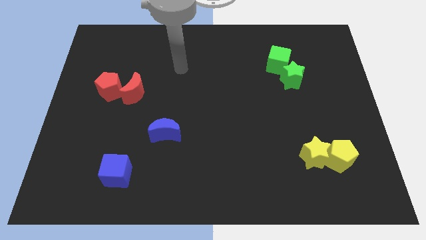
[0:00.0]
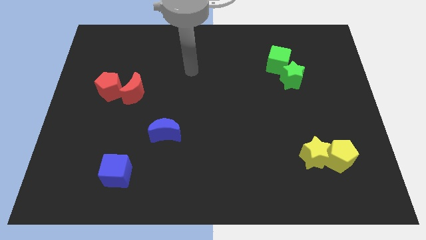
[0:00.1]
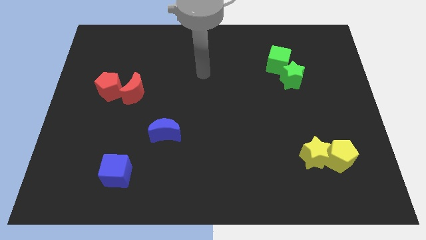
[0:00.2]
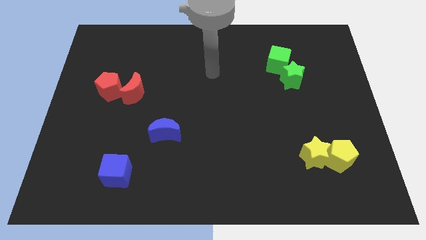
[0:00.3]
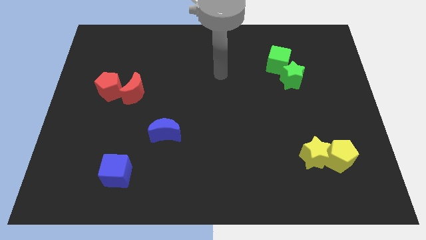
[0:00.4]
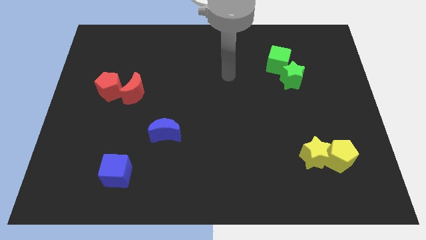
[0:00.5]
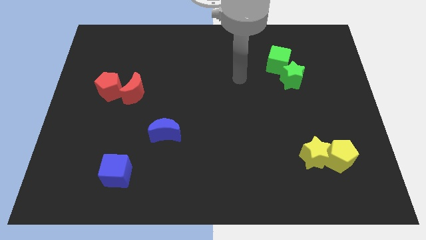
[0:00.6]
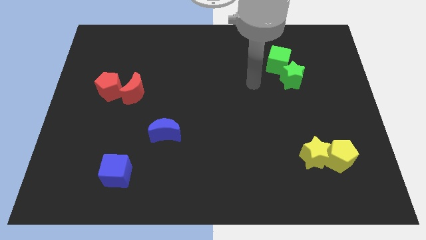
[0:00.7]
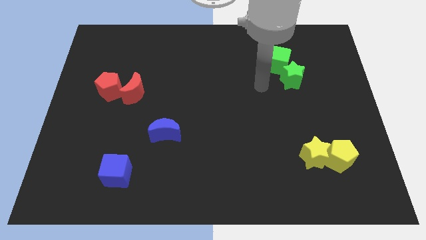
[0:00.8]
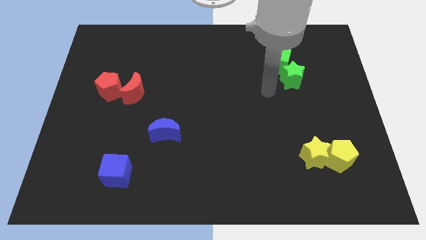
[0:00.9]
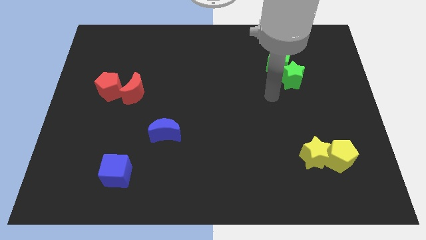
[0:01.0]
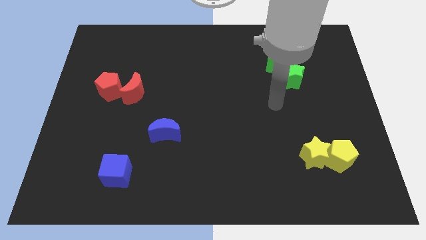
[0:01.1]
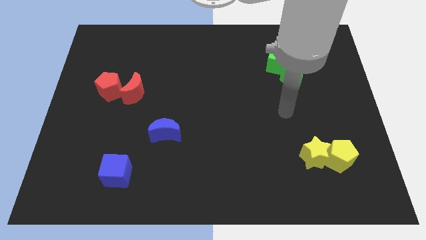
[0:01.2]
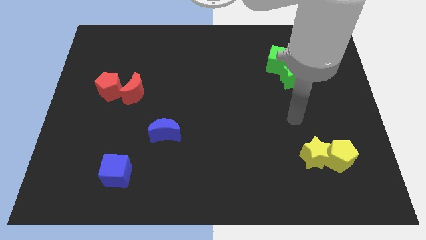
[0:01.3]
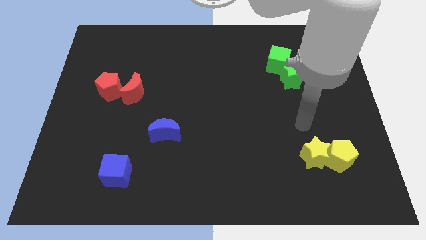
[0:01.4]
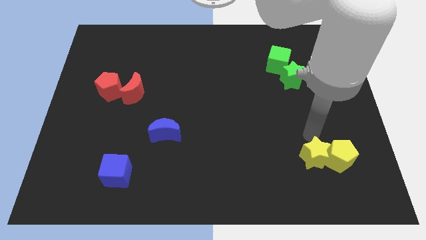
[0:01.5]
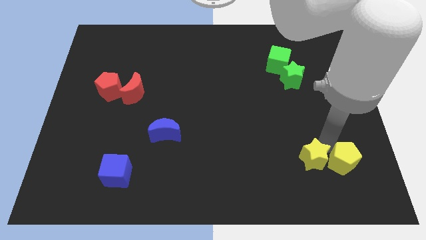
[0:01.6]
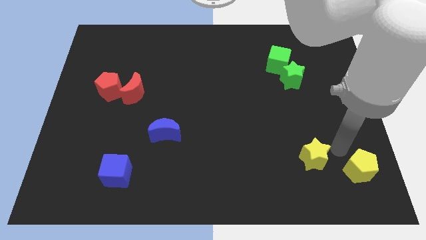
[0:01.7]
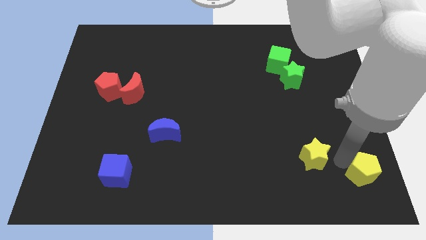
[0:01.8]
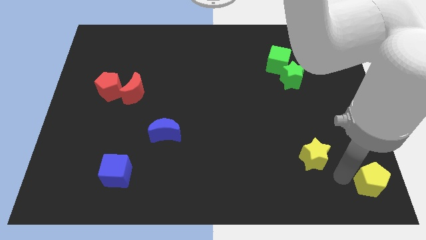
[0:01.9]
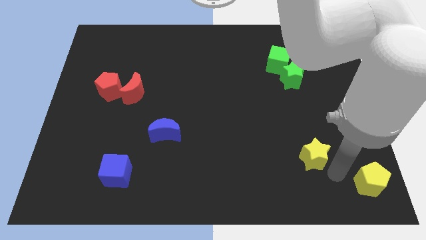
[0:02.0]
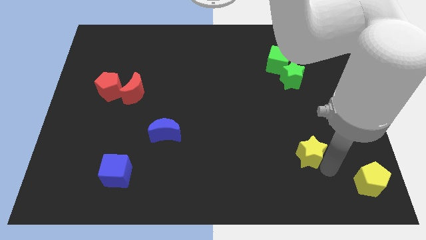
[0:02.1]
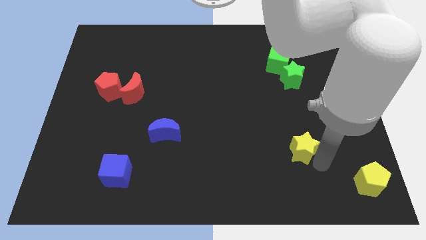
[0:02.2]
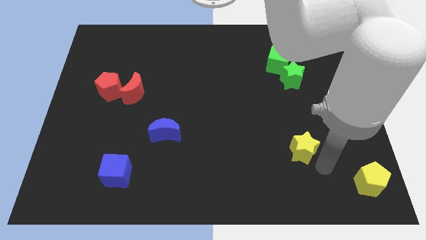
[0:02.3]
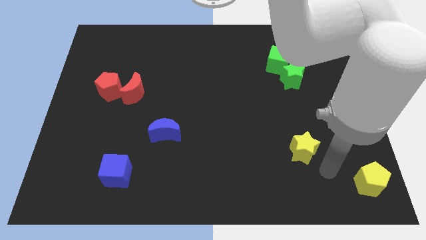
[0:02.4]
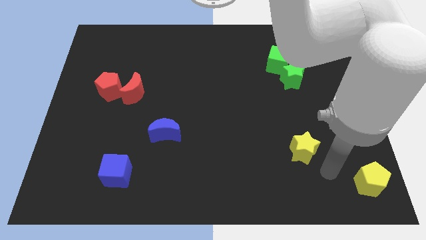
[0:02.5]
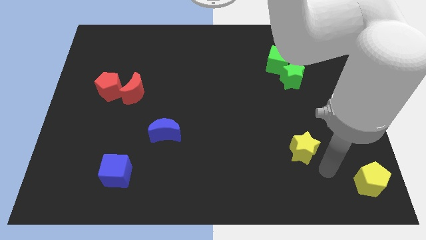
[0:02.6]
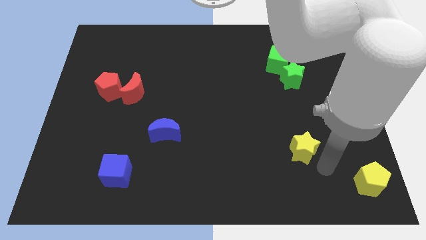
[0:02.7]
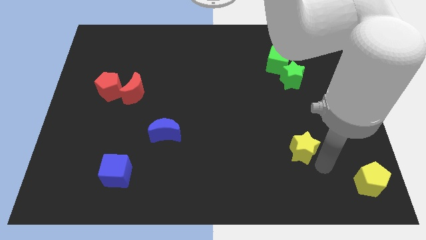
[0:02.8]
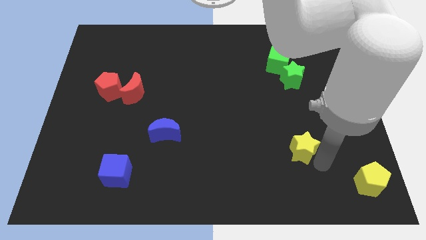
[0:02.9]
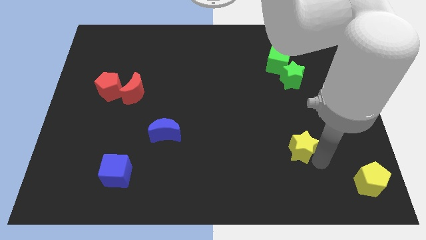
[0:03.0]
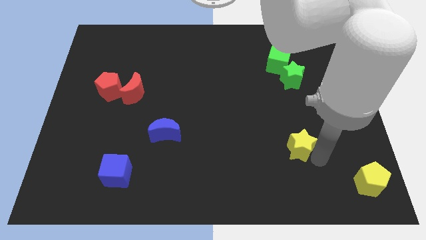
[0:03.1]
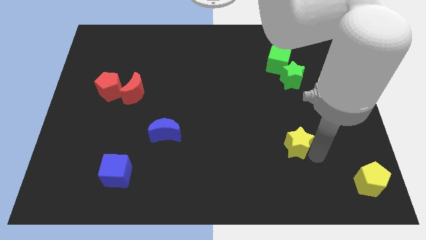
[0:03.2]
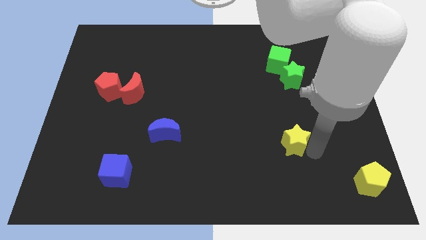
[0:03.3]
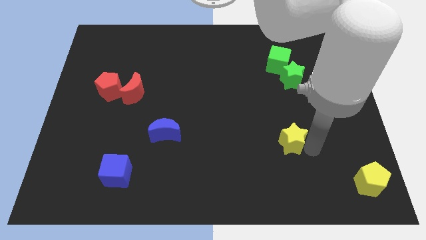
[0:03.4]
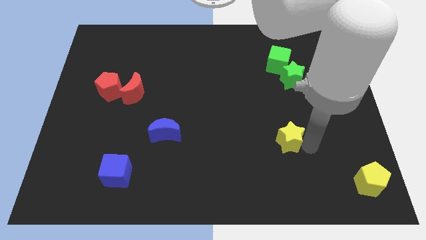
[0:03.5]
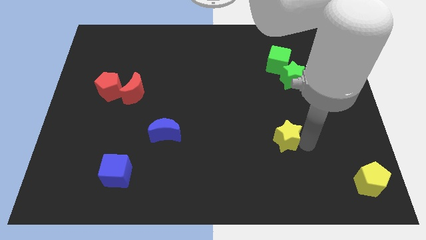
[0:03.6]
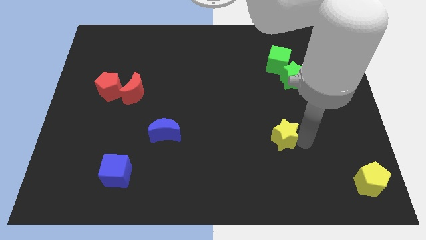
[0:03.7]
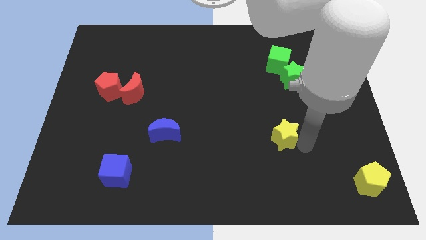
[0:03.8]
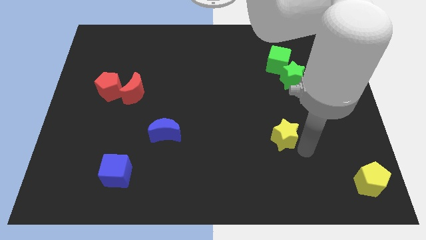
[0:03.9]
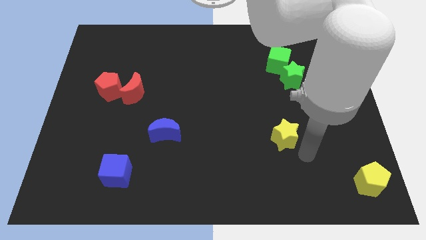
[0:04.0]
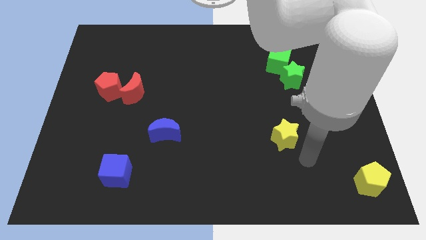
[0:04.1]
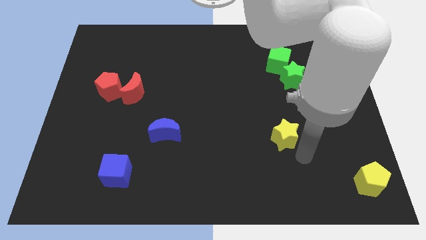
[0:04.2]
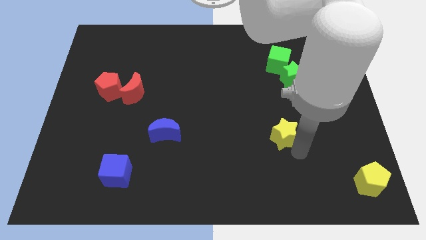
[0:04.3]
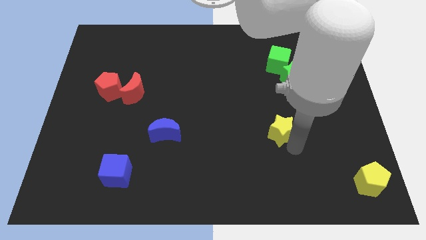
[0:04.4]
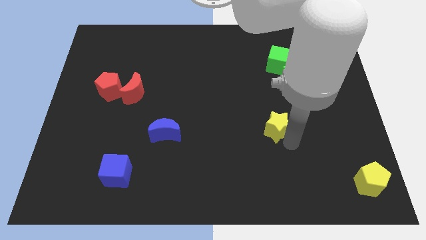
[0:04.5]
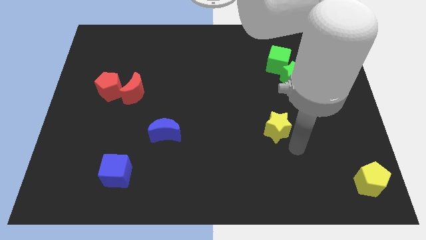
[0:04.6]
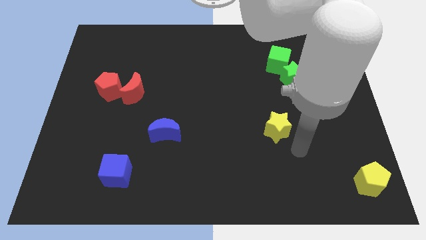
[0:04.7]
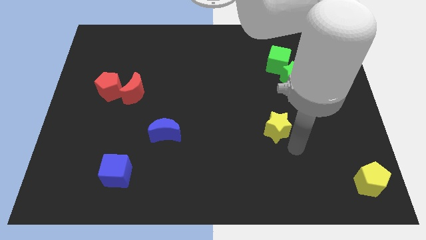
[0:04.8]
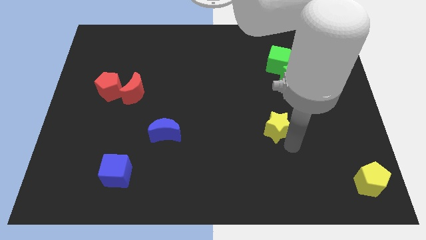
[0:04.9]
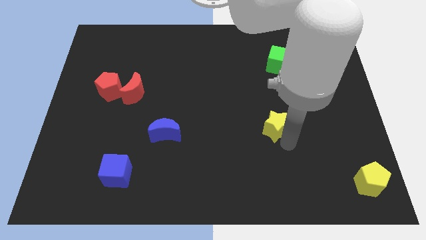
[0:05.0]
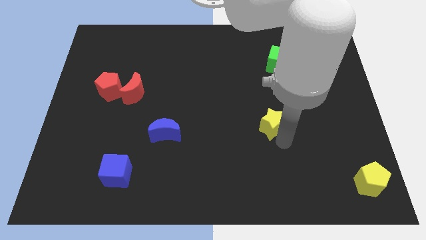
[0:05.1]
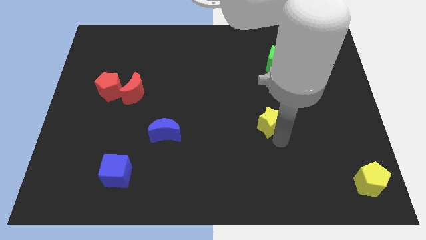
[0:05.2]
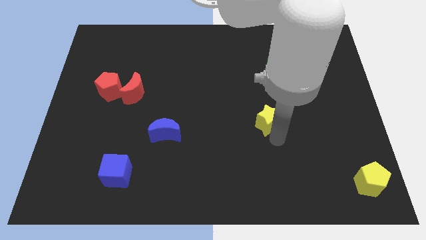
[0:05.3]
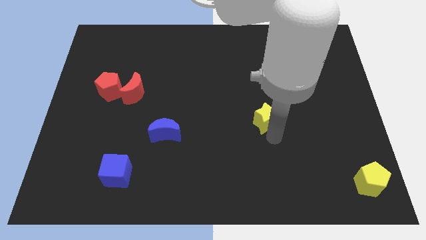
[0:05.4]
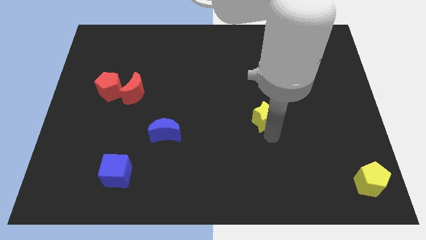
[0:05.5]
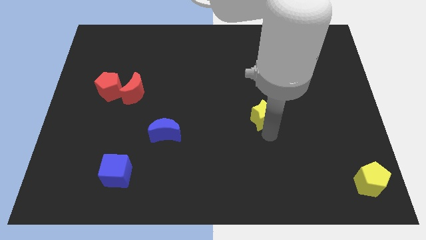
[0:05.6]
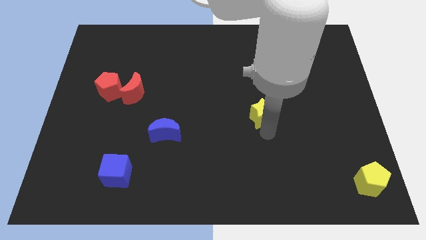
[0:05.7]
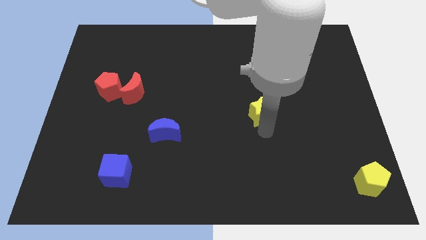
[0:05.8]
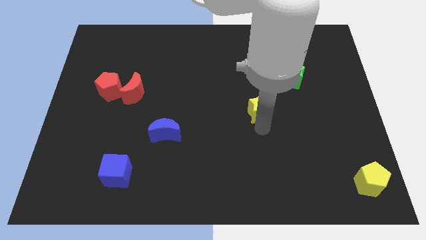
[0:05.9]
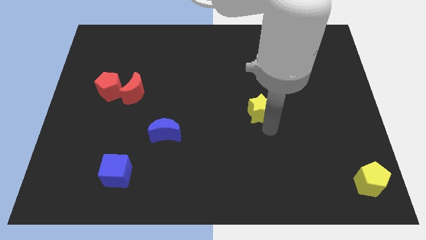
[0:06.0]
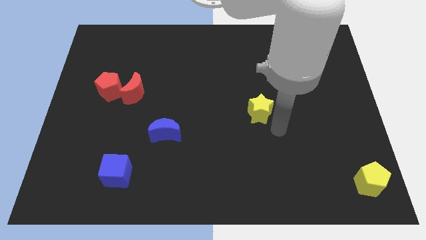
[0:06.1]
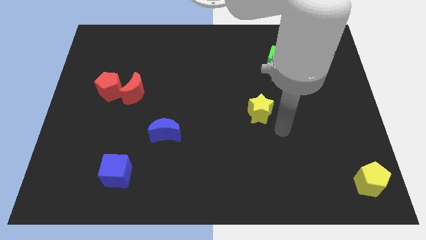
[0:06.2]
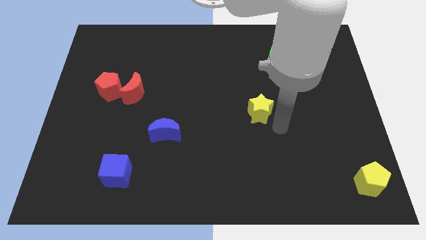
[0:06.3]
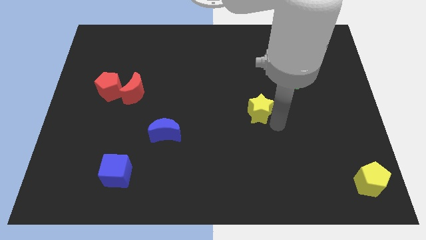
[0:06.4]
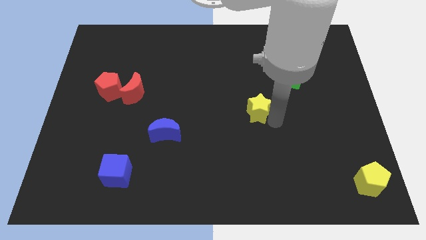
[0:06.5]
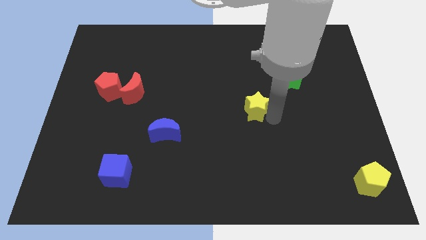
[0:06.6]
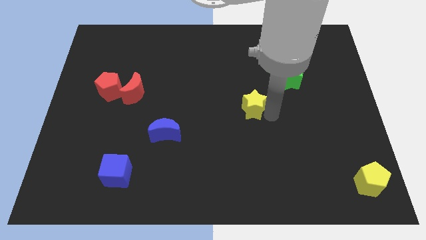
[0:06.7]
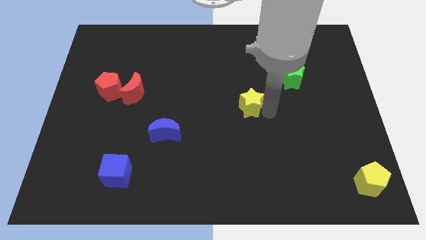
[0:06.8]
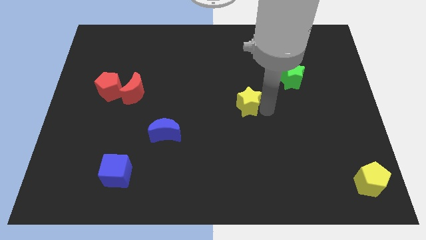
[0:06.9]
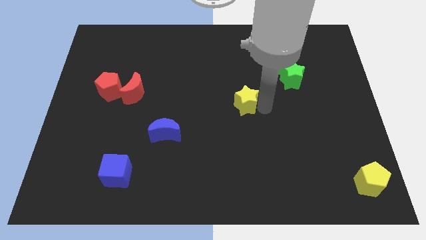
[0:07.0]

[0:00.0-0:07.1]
move the yellow star diagonally up and left

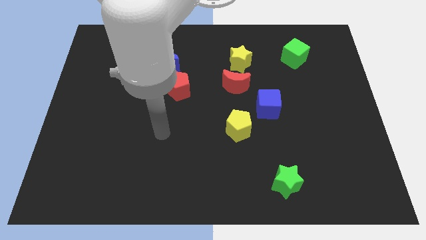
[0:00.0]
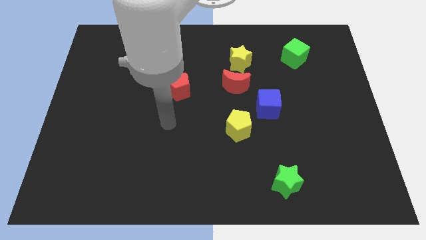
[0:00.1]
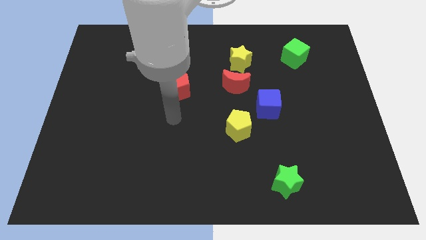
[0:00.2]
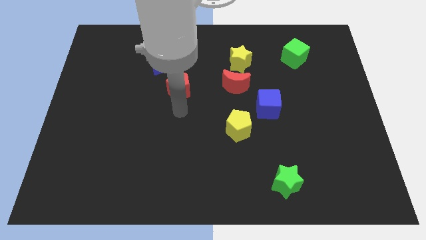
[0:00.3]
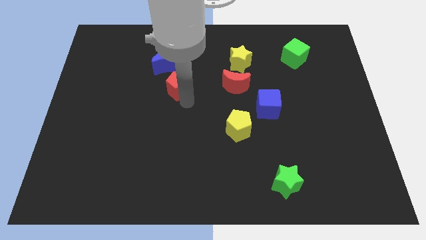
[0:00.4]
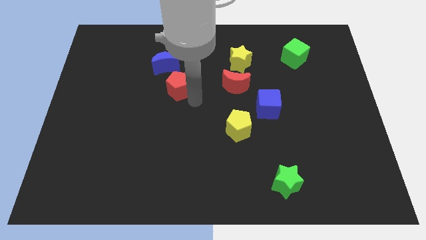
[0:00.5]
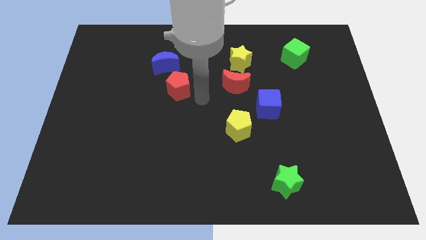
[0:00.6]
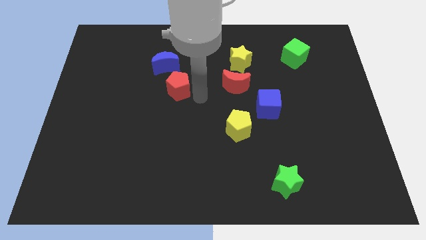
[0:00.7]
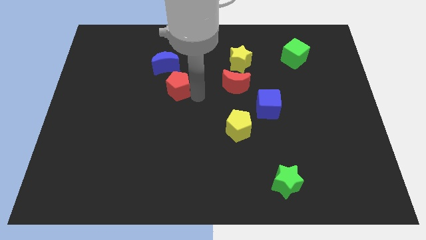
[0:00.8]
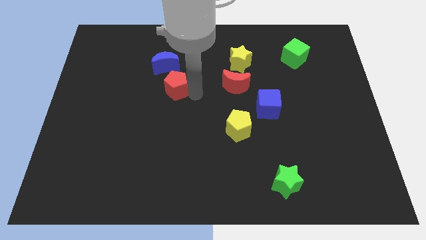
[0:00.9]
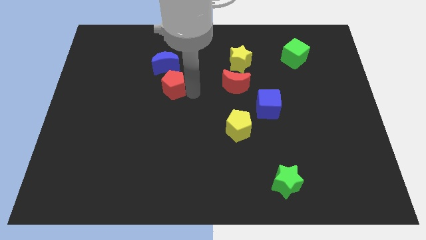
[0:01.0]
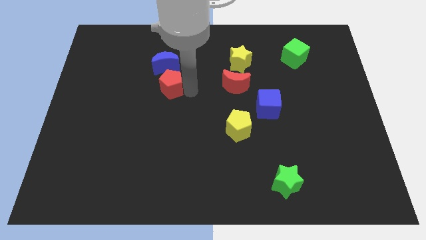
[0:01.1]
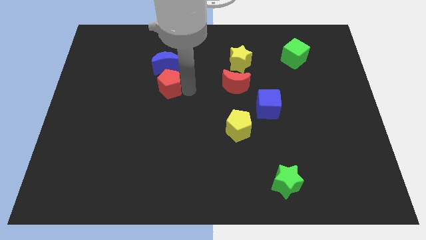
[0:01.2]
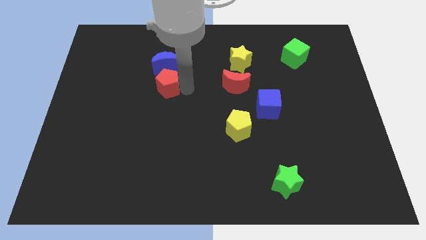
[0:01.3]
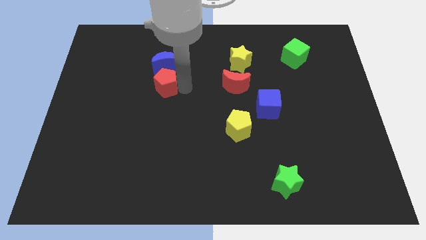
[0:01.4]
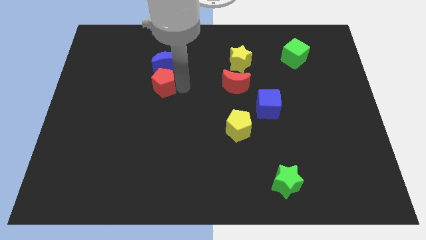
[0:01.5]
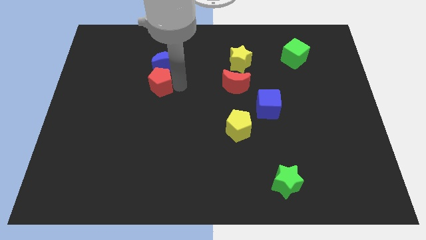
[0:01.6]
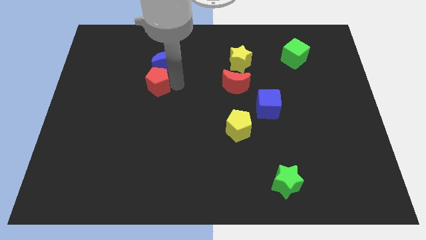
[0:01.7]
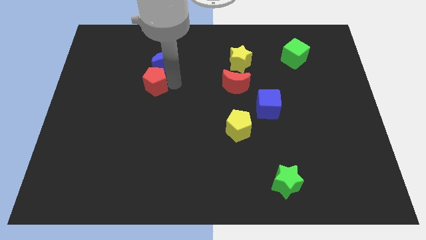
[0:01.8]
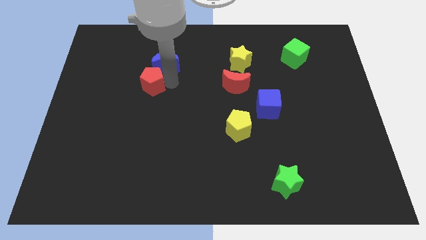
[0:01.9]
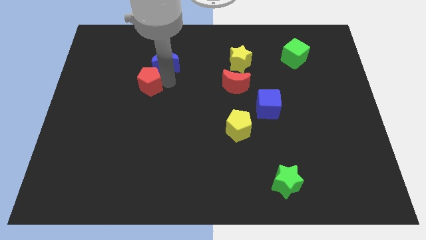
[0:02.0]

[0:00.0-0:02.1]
push the red pentagon left slightly
